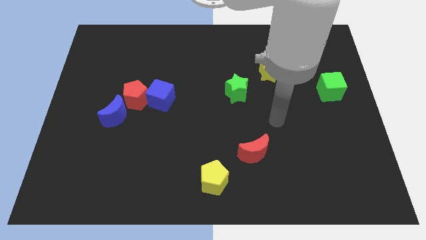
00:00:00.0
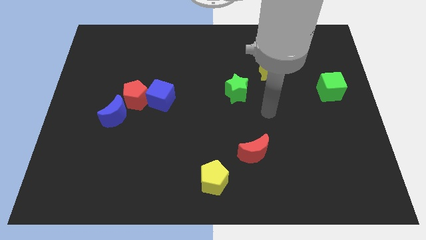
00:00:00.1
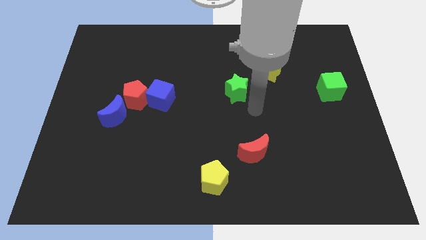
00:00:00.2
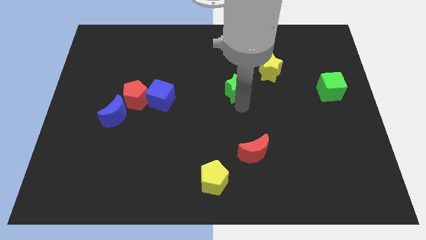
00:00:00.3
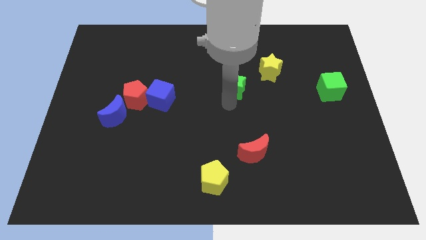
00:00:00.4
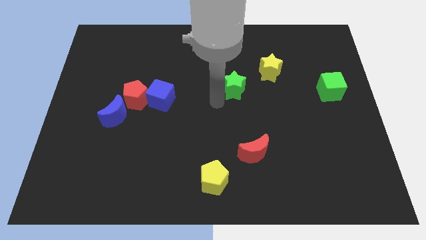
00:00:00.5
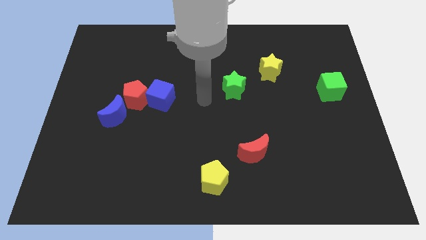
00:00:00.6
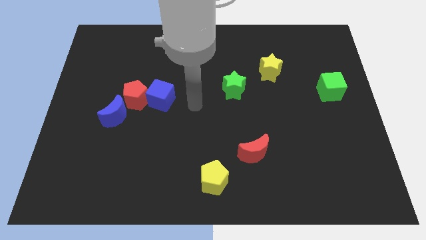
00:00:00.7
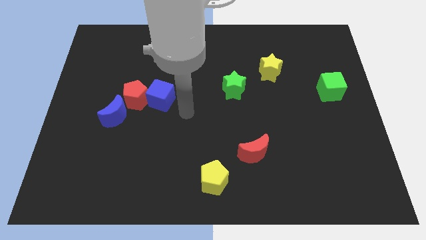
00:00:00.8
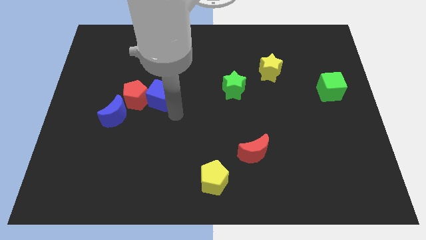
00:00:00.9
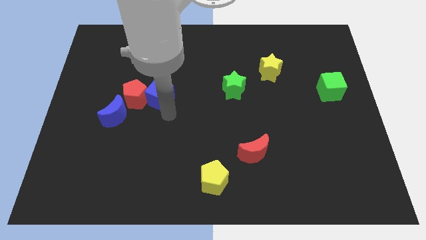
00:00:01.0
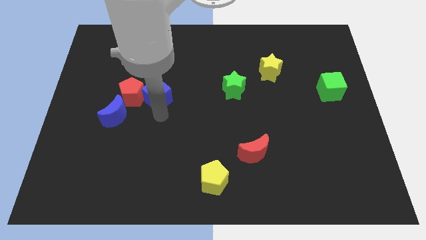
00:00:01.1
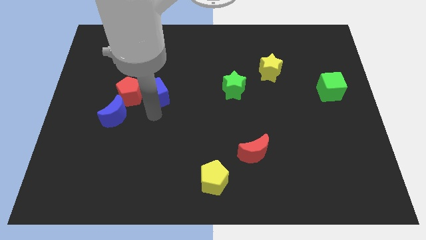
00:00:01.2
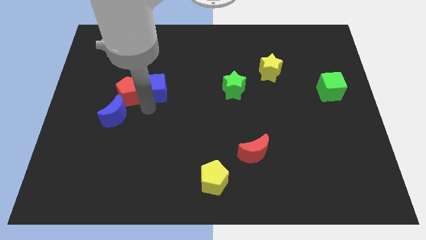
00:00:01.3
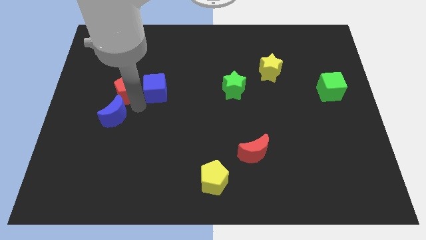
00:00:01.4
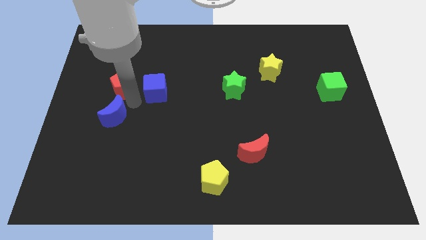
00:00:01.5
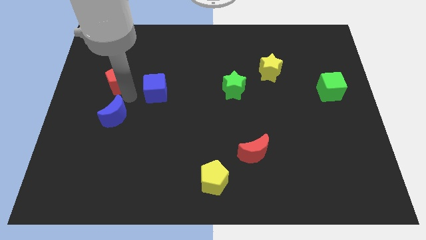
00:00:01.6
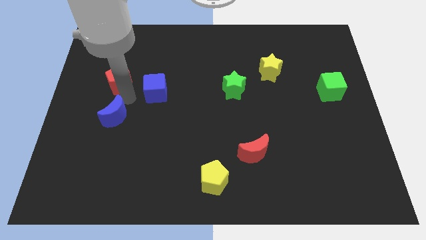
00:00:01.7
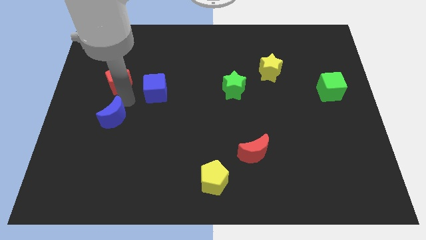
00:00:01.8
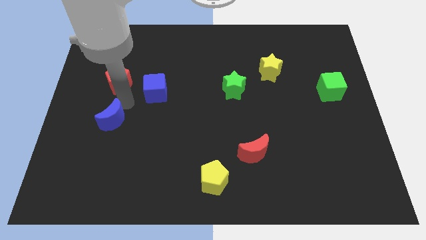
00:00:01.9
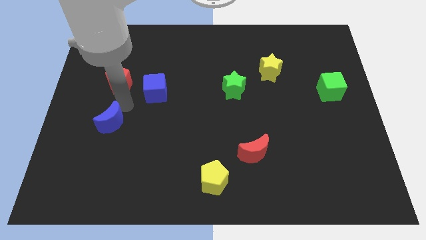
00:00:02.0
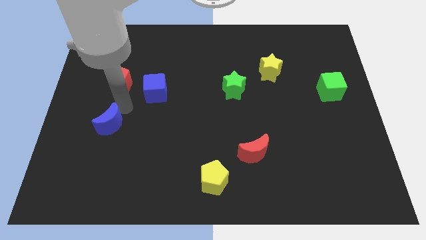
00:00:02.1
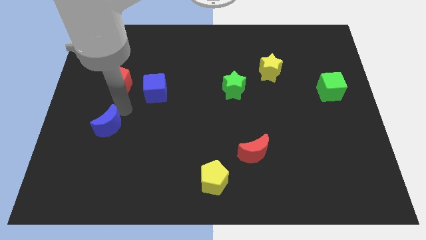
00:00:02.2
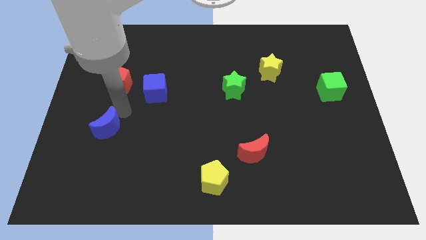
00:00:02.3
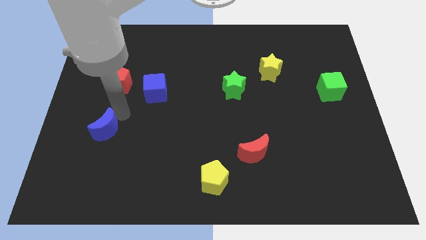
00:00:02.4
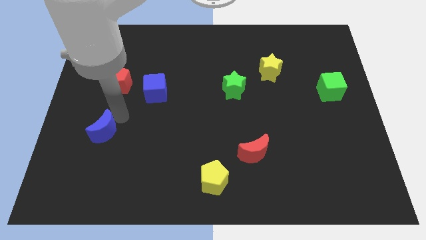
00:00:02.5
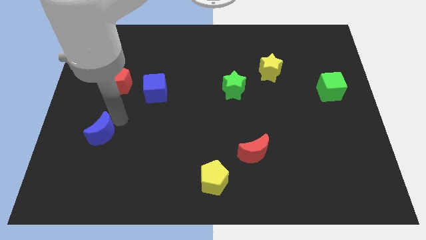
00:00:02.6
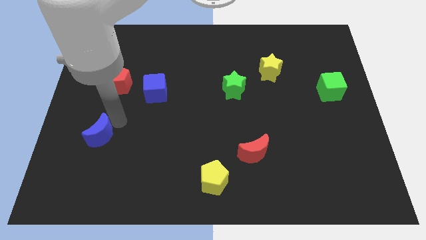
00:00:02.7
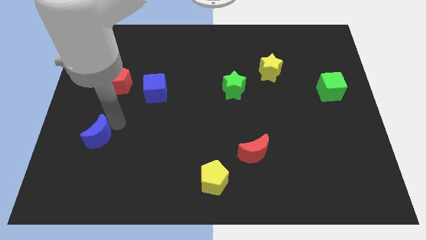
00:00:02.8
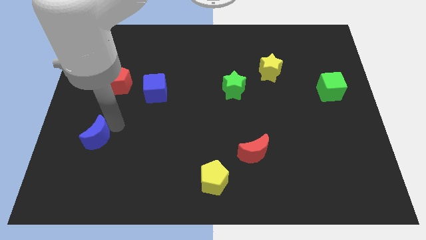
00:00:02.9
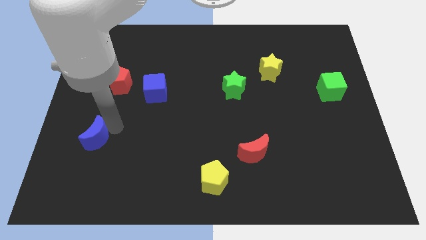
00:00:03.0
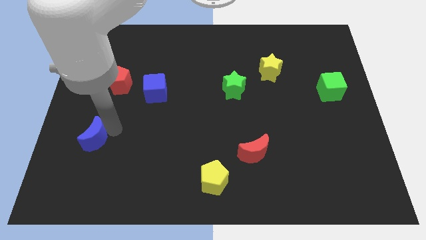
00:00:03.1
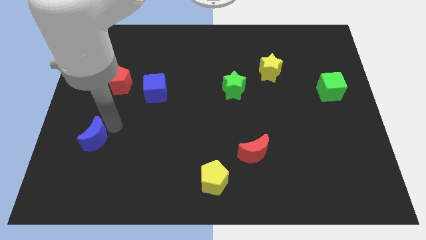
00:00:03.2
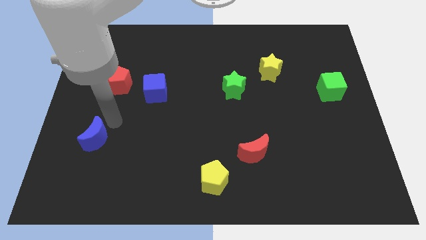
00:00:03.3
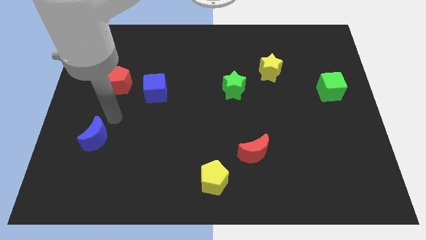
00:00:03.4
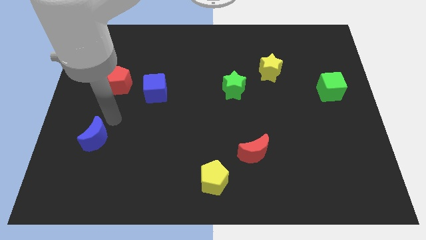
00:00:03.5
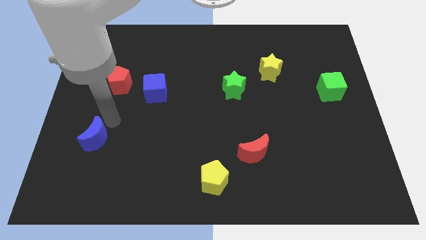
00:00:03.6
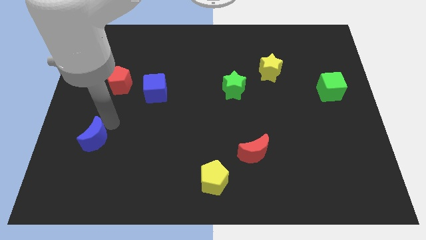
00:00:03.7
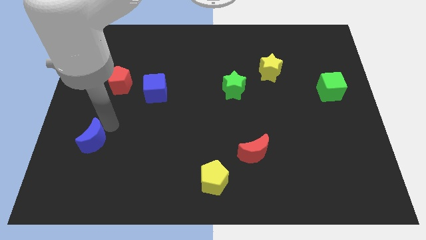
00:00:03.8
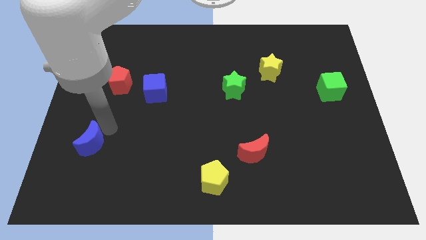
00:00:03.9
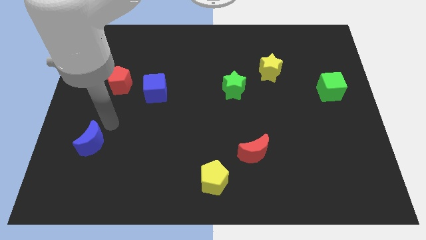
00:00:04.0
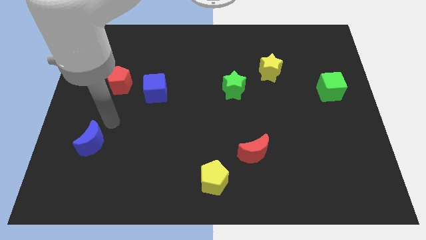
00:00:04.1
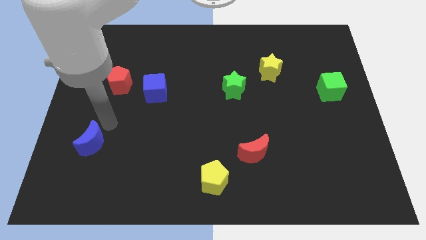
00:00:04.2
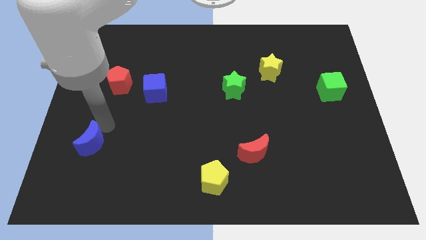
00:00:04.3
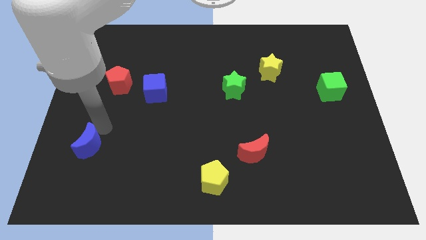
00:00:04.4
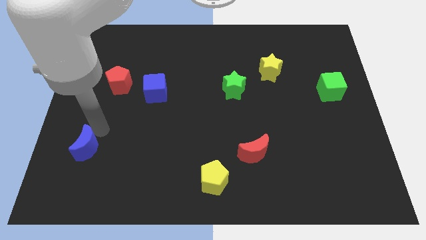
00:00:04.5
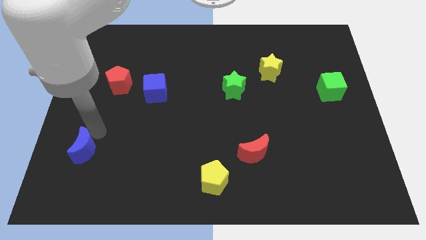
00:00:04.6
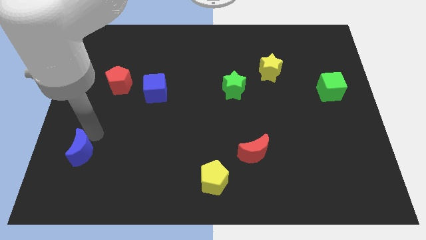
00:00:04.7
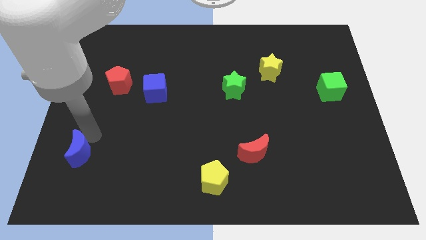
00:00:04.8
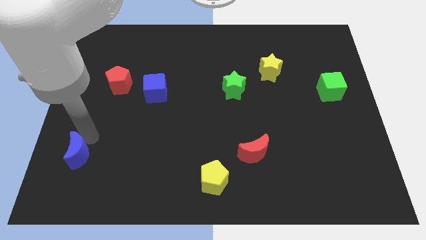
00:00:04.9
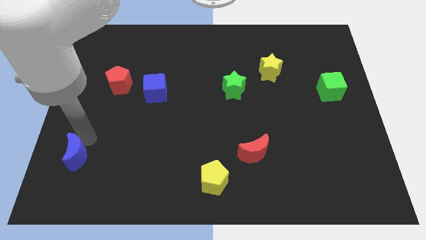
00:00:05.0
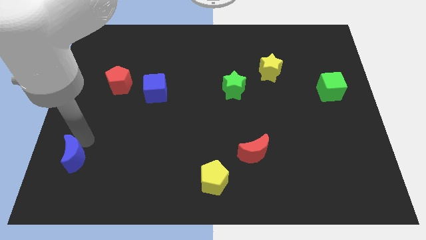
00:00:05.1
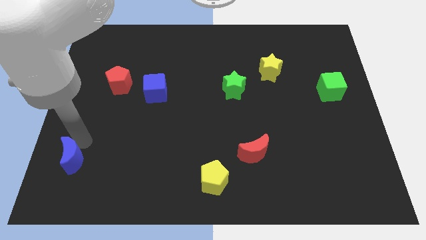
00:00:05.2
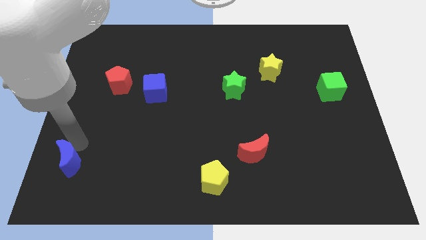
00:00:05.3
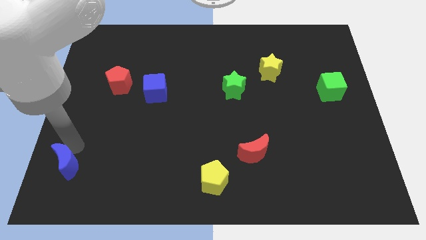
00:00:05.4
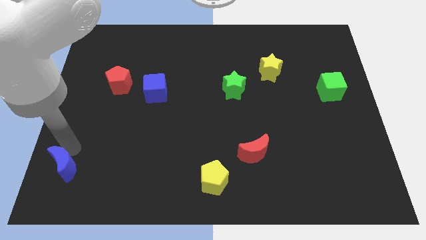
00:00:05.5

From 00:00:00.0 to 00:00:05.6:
push the blue moon to the bottom left of the board
